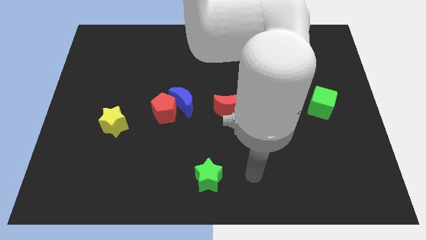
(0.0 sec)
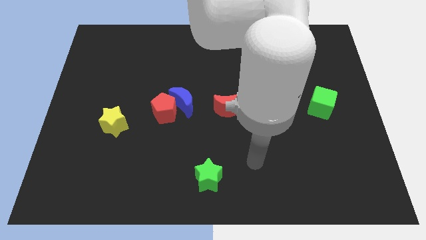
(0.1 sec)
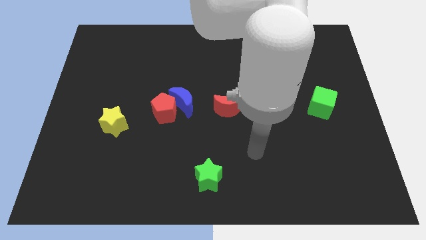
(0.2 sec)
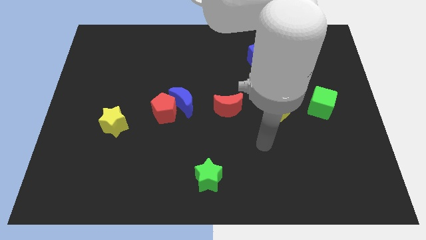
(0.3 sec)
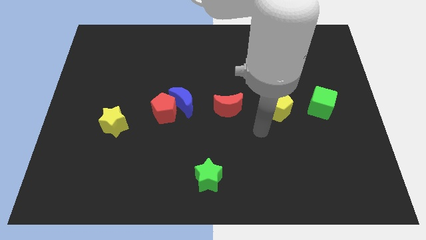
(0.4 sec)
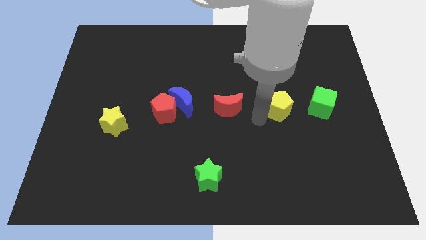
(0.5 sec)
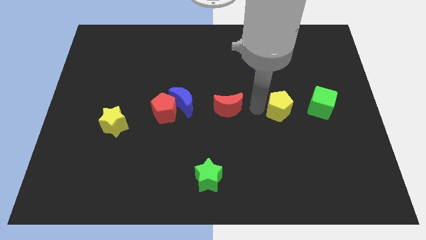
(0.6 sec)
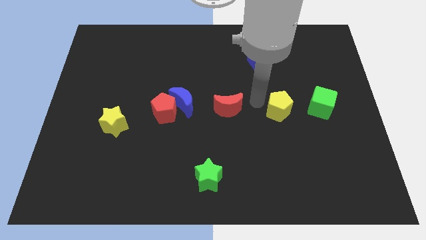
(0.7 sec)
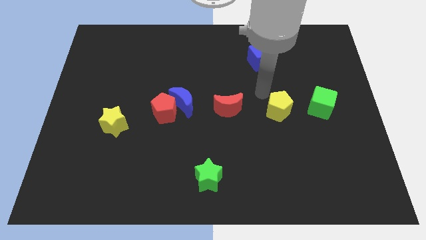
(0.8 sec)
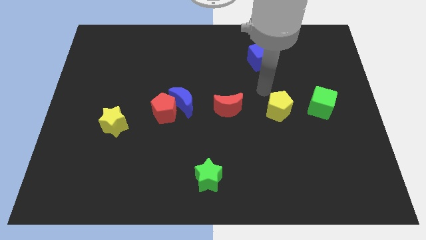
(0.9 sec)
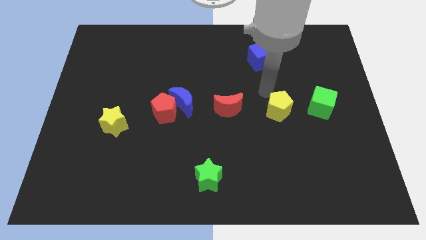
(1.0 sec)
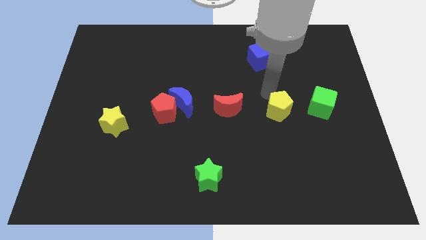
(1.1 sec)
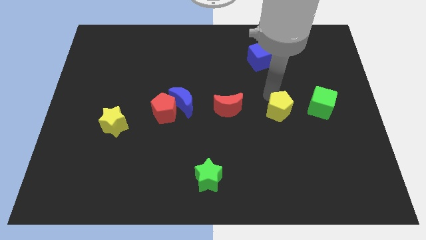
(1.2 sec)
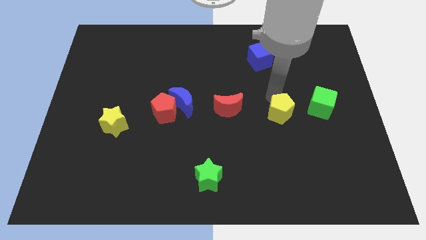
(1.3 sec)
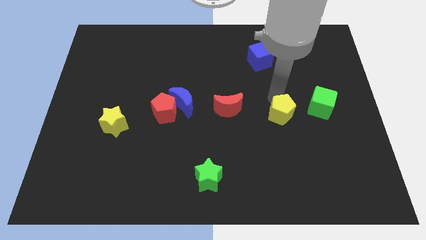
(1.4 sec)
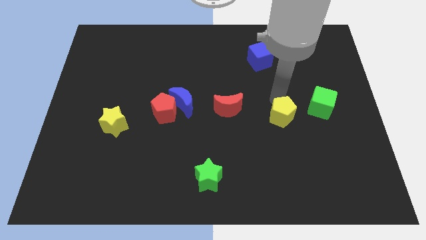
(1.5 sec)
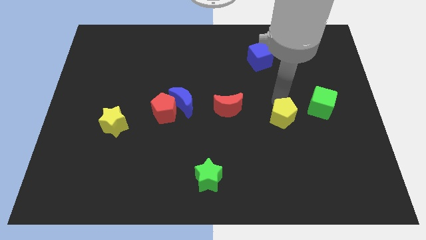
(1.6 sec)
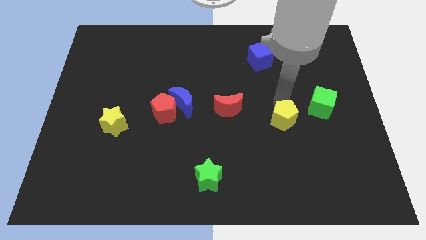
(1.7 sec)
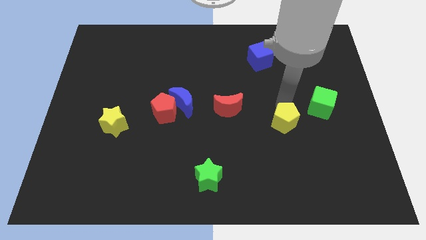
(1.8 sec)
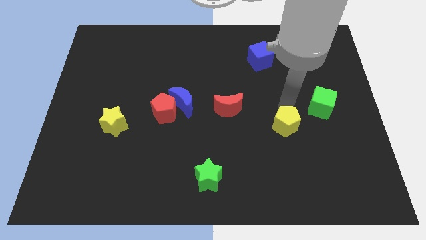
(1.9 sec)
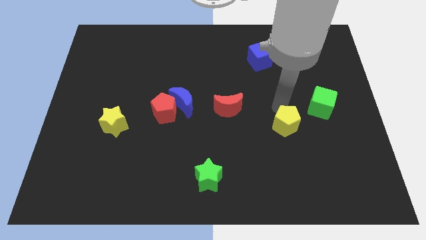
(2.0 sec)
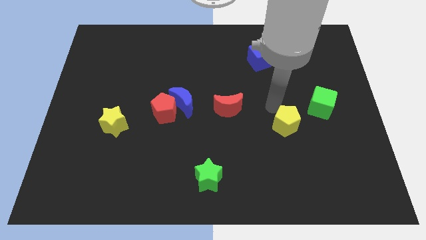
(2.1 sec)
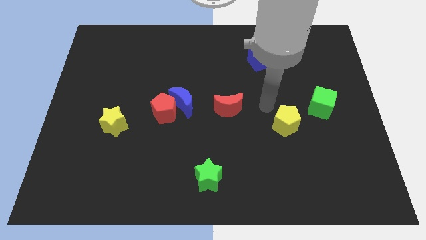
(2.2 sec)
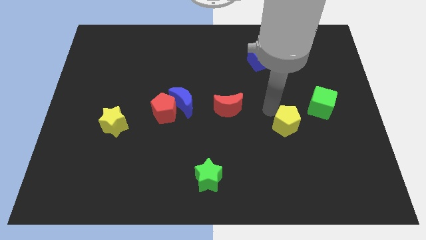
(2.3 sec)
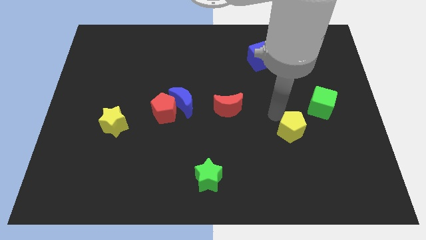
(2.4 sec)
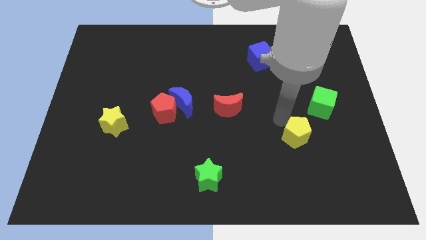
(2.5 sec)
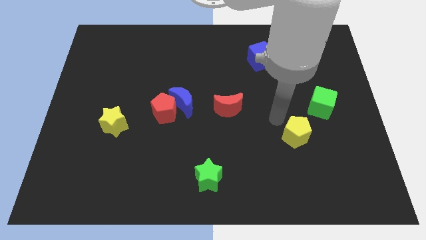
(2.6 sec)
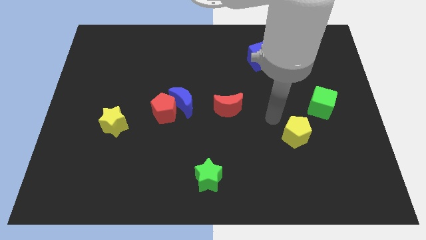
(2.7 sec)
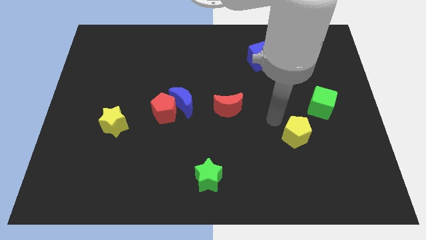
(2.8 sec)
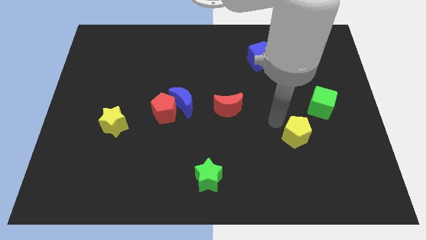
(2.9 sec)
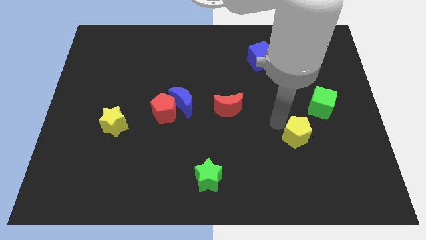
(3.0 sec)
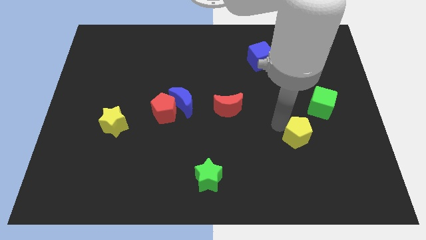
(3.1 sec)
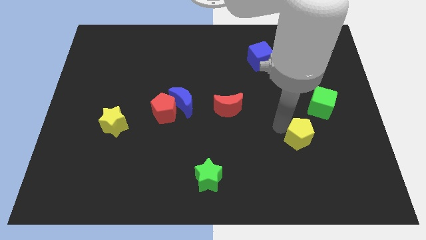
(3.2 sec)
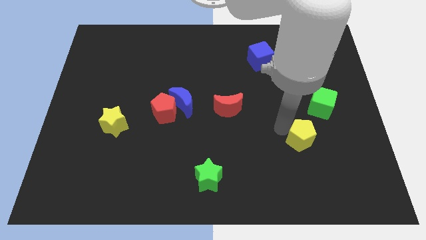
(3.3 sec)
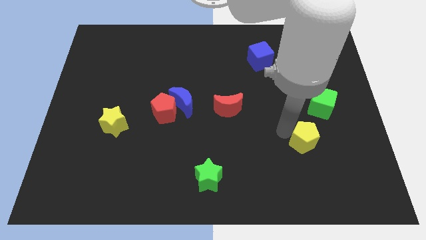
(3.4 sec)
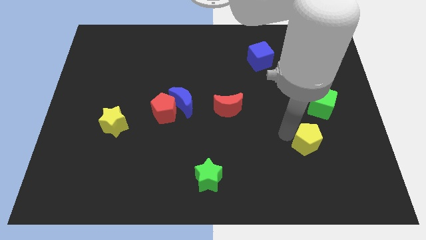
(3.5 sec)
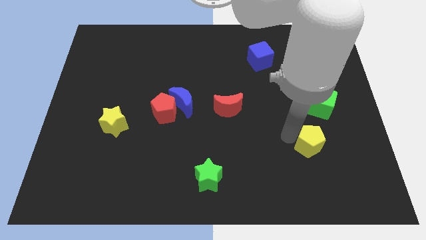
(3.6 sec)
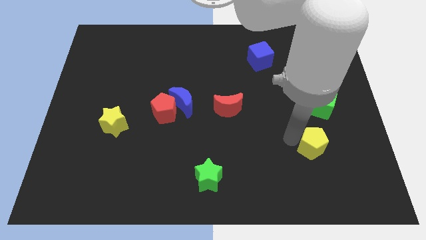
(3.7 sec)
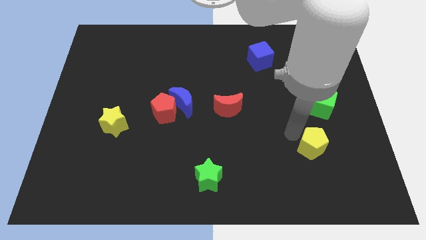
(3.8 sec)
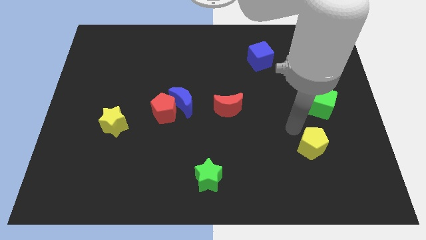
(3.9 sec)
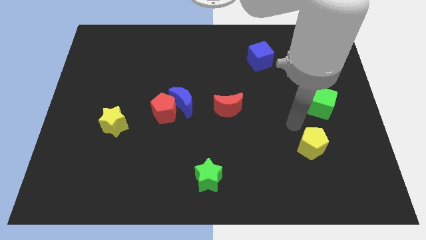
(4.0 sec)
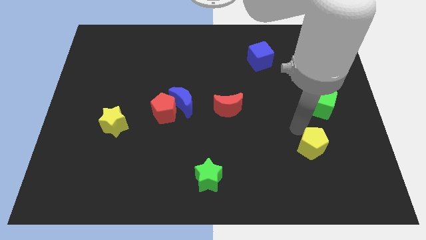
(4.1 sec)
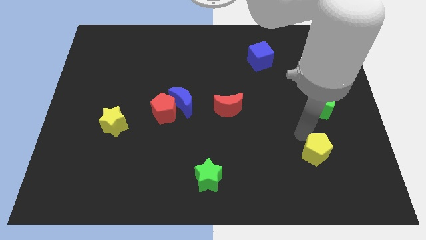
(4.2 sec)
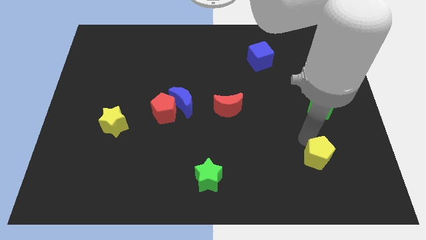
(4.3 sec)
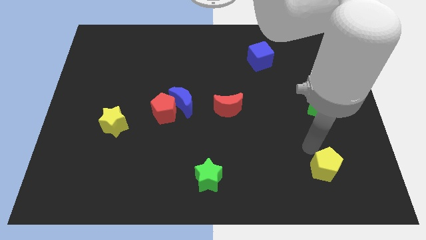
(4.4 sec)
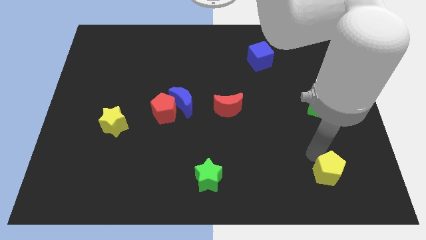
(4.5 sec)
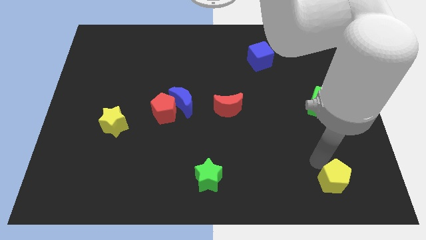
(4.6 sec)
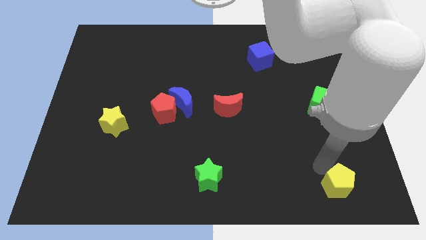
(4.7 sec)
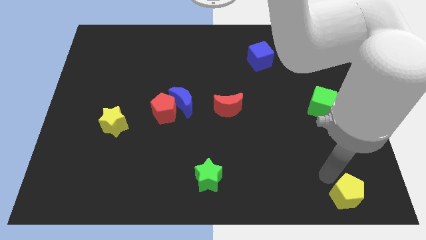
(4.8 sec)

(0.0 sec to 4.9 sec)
slide the yellow pentagon to the bottom right

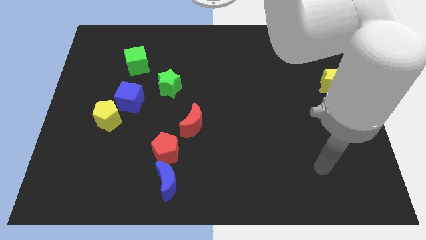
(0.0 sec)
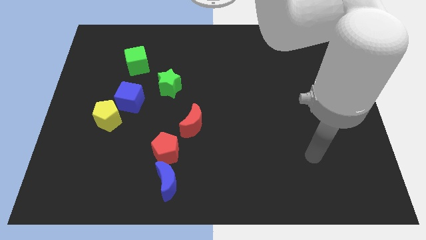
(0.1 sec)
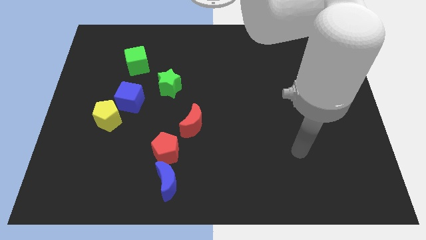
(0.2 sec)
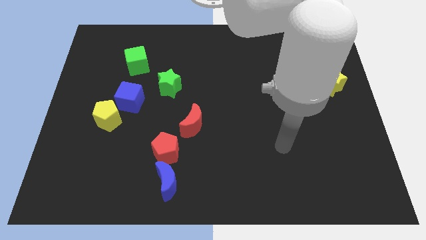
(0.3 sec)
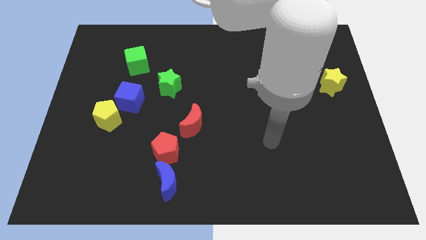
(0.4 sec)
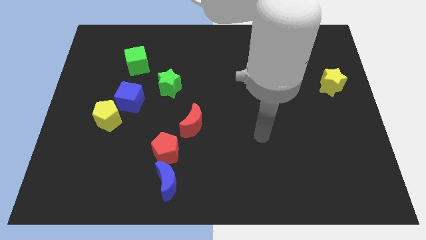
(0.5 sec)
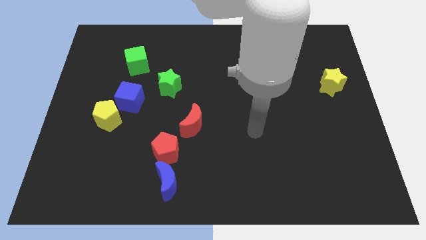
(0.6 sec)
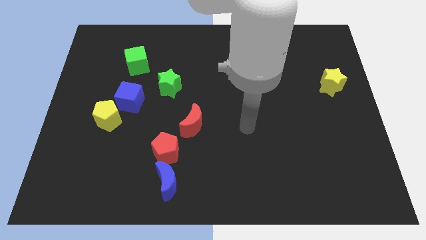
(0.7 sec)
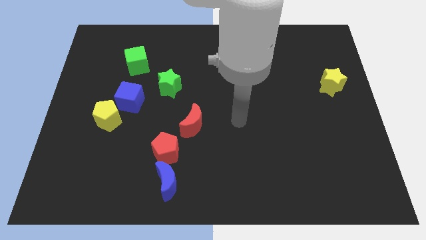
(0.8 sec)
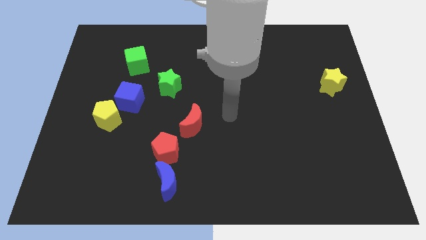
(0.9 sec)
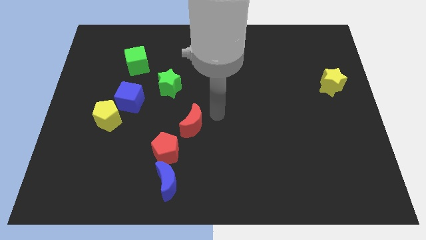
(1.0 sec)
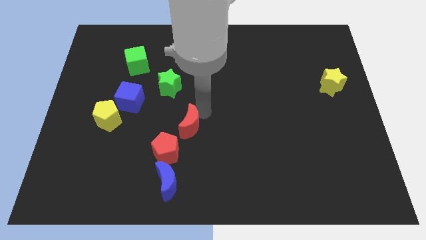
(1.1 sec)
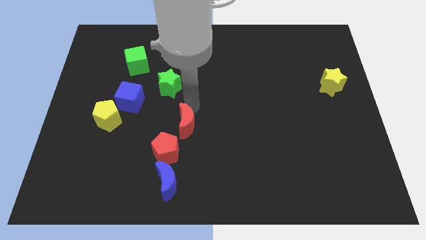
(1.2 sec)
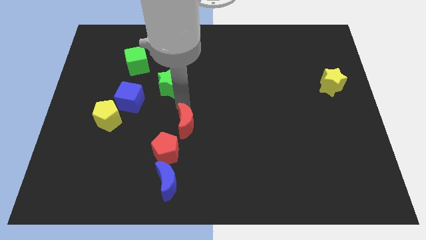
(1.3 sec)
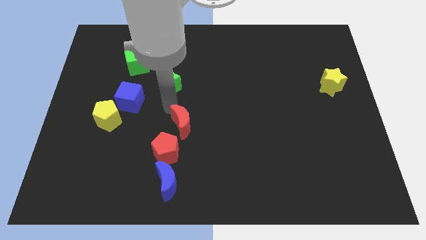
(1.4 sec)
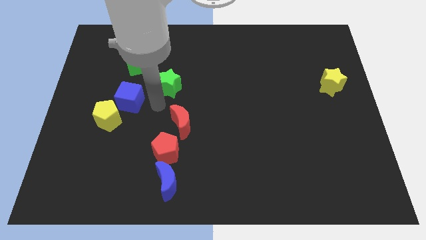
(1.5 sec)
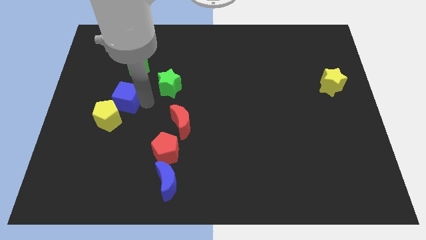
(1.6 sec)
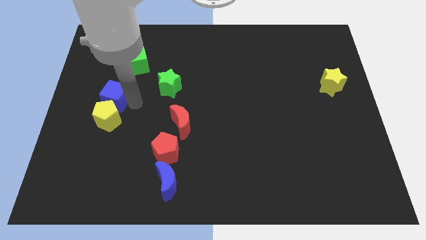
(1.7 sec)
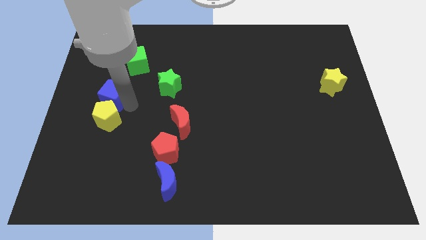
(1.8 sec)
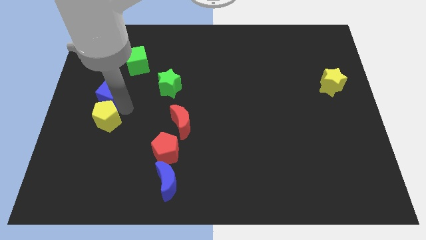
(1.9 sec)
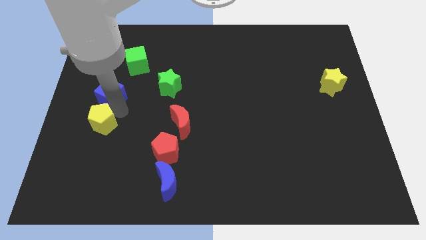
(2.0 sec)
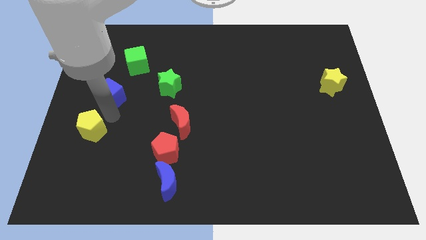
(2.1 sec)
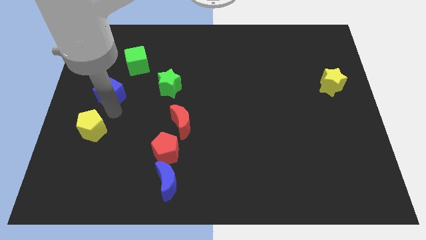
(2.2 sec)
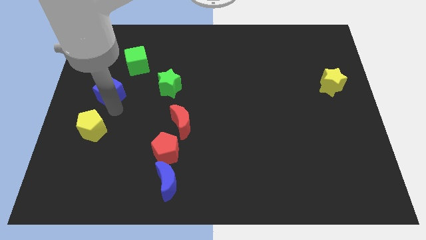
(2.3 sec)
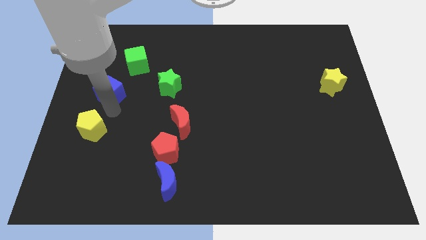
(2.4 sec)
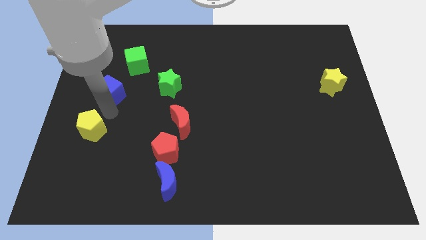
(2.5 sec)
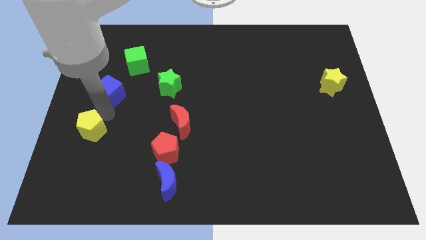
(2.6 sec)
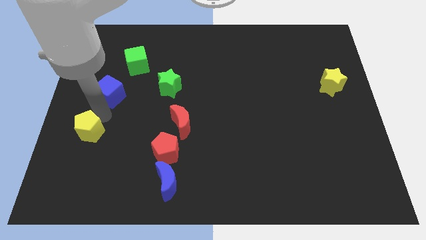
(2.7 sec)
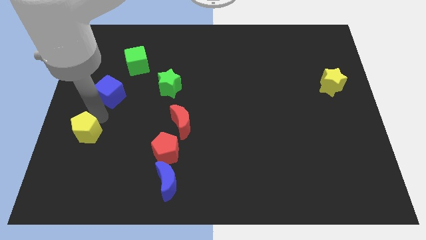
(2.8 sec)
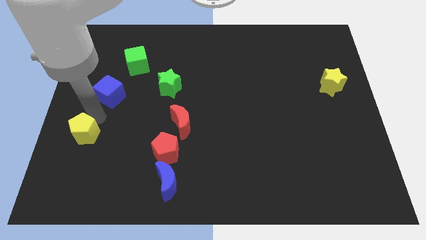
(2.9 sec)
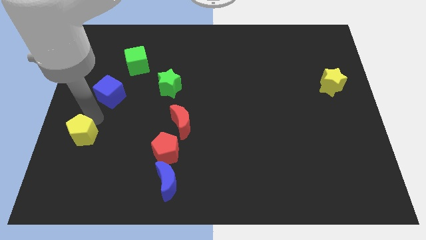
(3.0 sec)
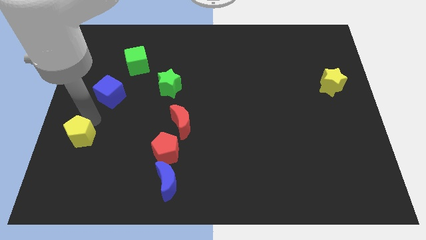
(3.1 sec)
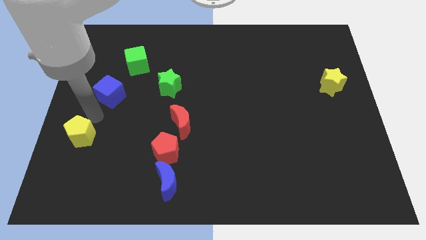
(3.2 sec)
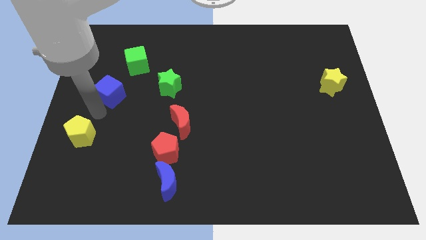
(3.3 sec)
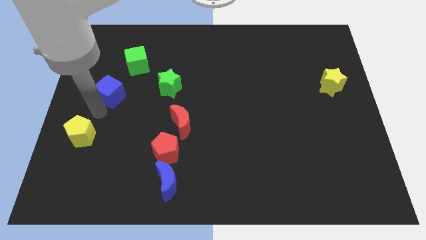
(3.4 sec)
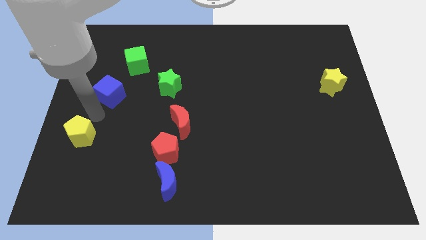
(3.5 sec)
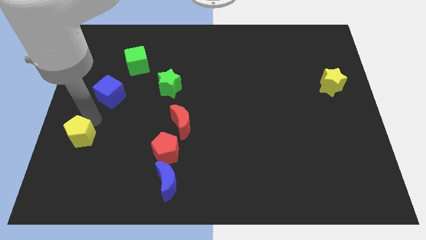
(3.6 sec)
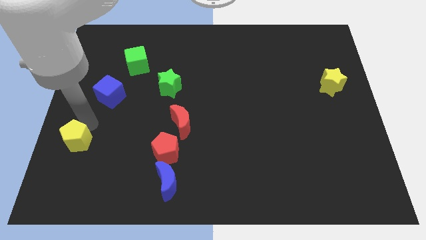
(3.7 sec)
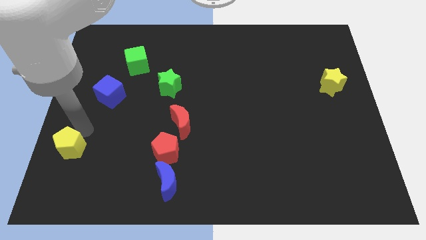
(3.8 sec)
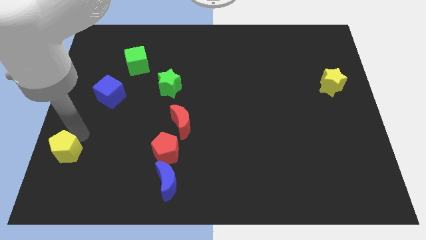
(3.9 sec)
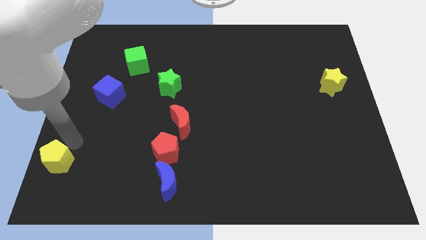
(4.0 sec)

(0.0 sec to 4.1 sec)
push the yellow pentagon to the bottom left of the board
